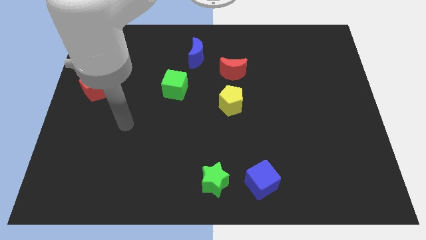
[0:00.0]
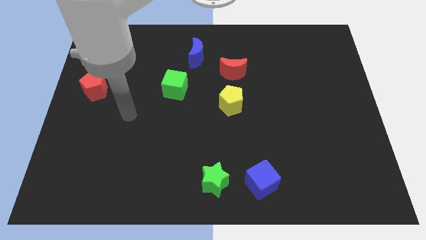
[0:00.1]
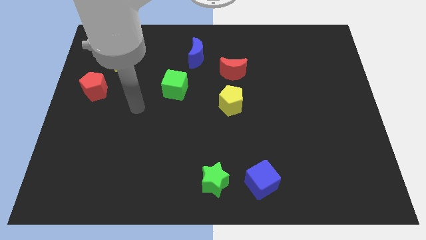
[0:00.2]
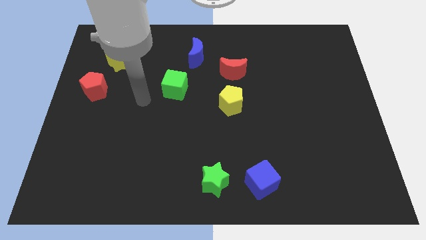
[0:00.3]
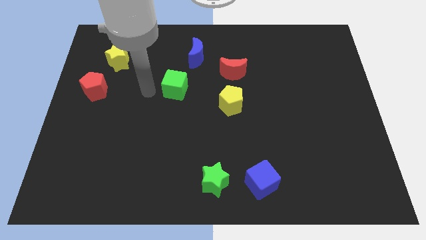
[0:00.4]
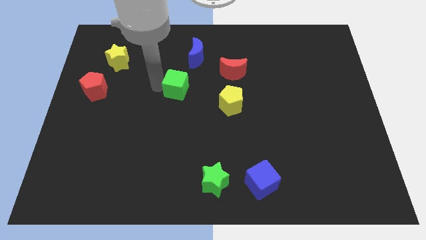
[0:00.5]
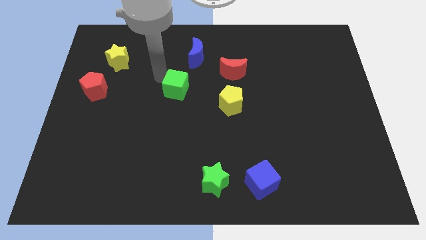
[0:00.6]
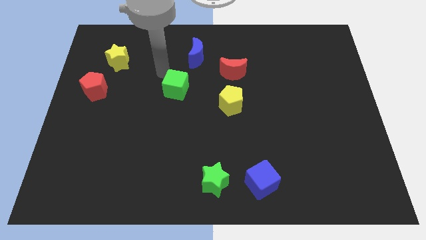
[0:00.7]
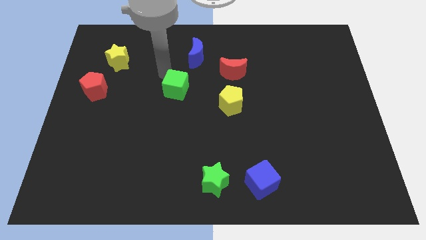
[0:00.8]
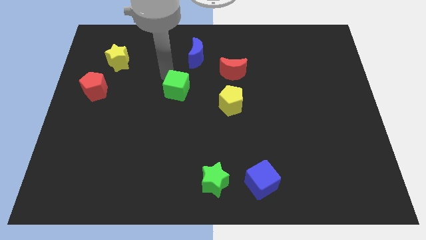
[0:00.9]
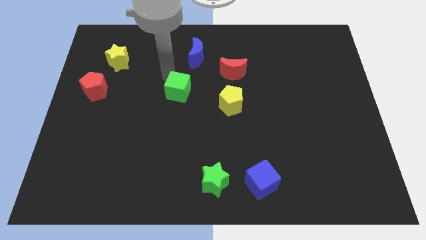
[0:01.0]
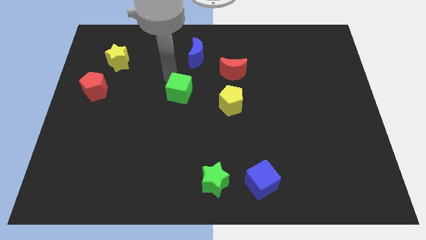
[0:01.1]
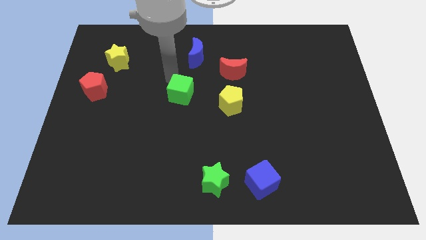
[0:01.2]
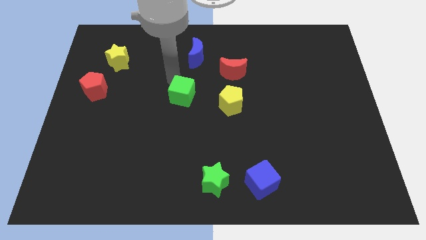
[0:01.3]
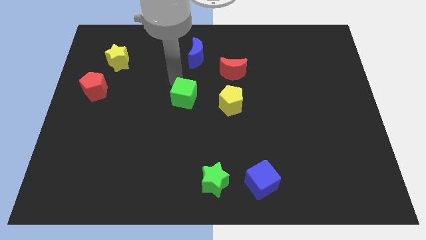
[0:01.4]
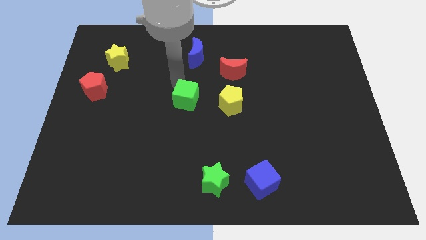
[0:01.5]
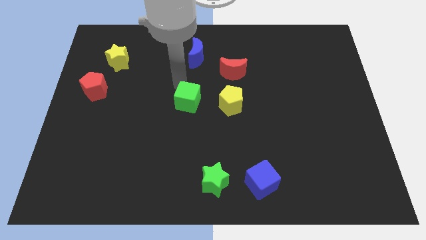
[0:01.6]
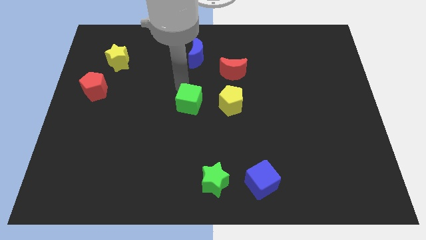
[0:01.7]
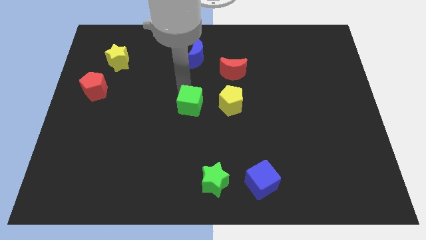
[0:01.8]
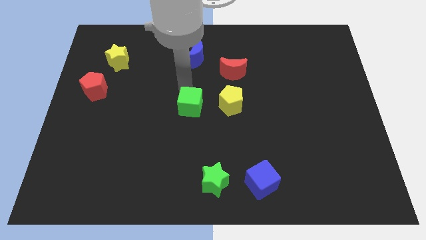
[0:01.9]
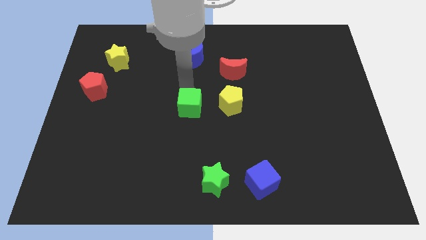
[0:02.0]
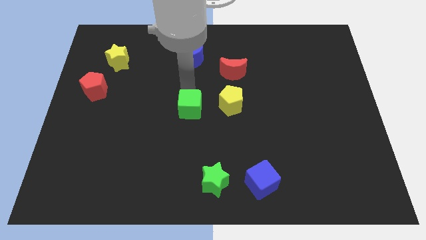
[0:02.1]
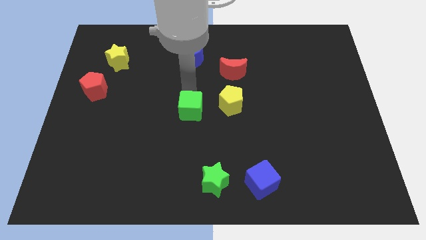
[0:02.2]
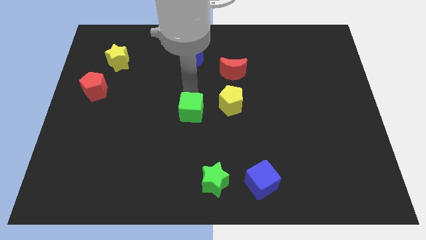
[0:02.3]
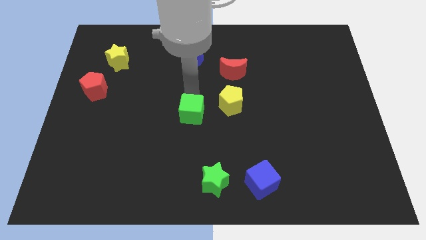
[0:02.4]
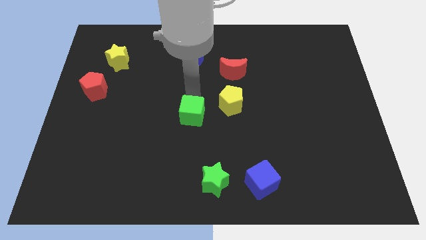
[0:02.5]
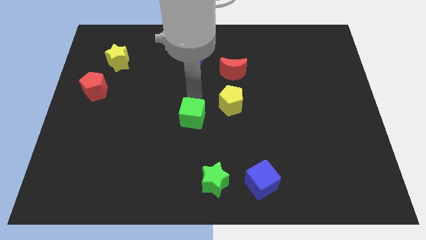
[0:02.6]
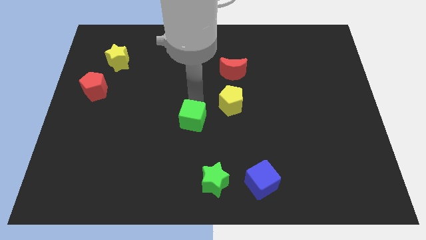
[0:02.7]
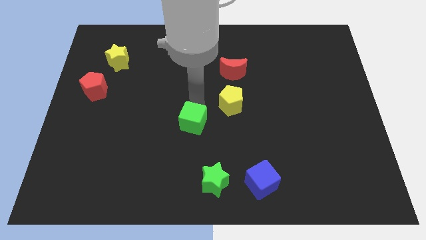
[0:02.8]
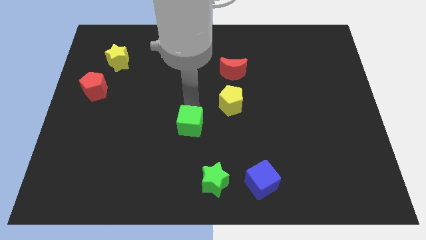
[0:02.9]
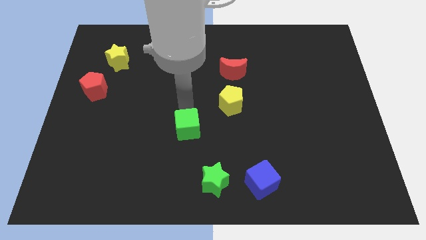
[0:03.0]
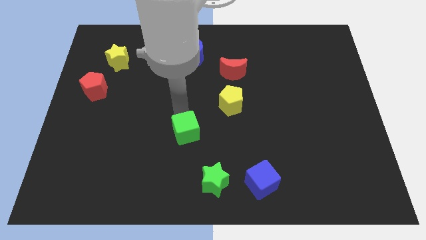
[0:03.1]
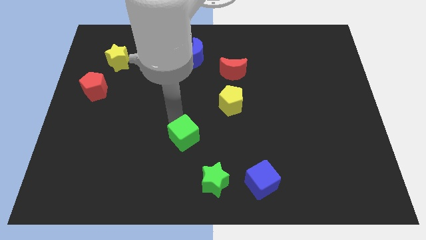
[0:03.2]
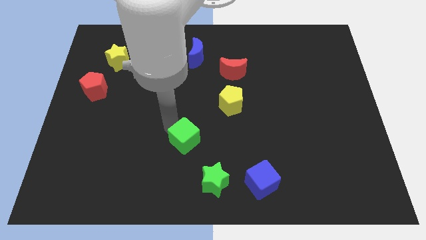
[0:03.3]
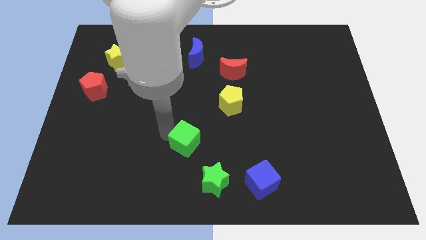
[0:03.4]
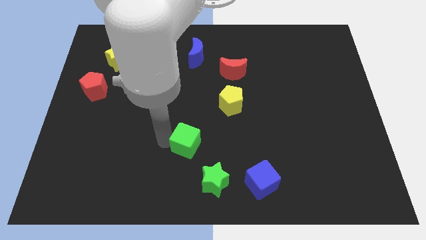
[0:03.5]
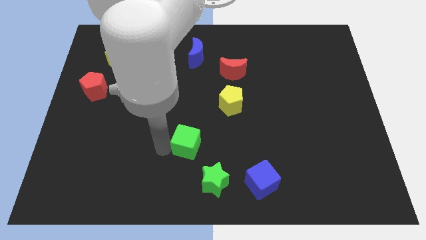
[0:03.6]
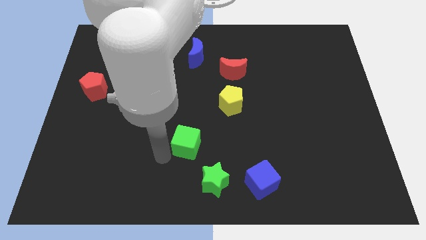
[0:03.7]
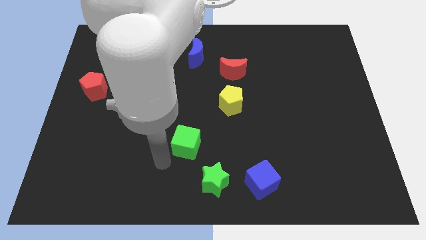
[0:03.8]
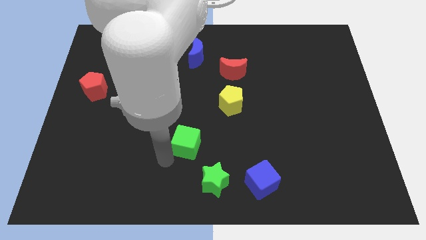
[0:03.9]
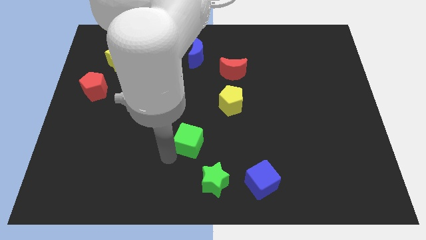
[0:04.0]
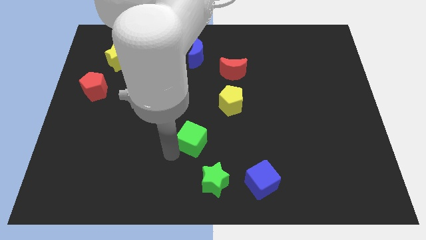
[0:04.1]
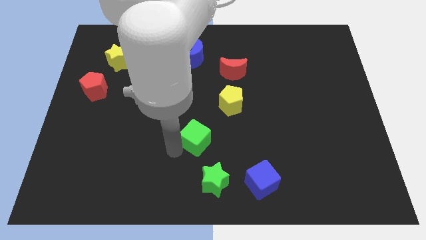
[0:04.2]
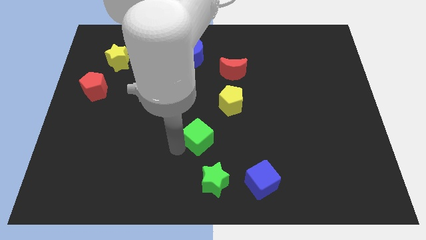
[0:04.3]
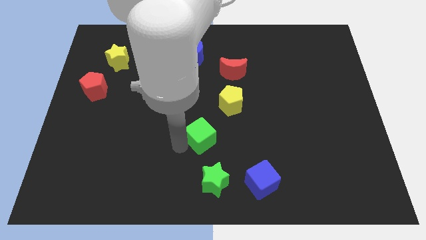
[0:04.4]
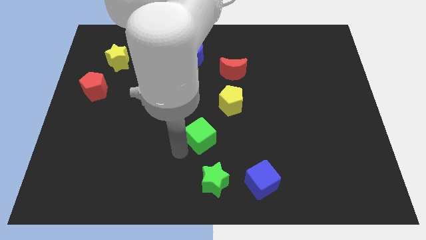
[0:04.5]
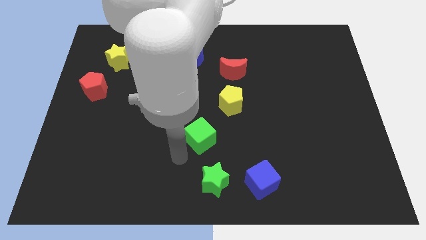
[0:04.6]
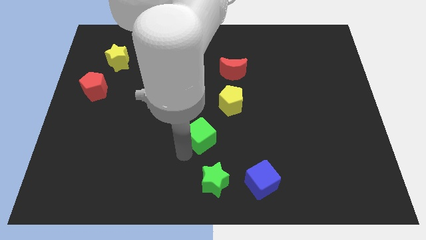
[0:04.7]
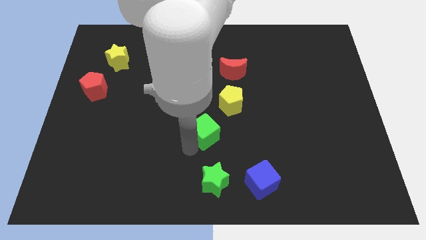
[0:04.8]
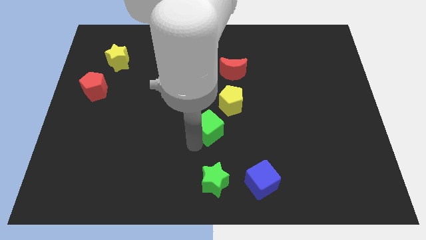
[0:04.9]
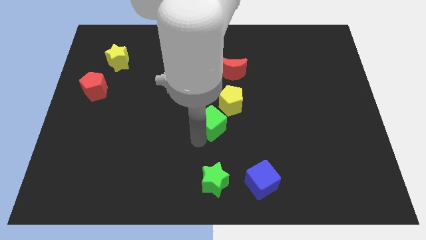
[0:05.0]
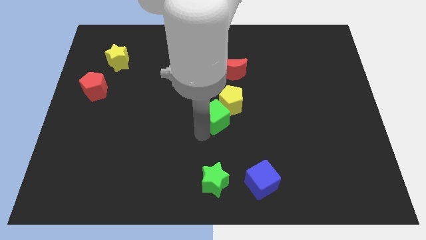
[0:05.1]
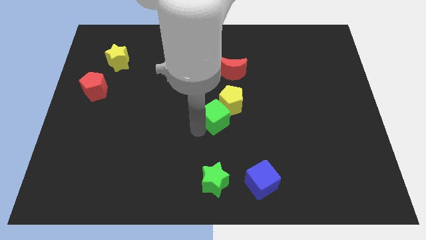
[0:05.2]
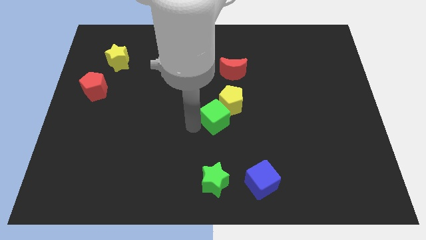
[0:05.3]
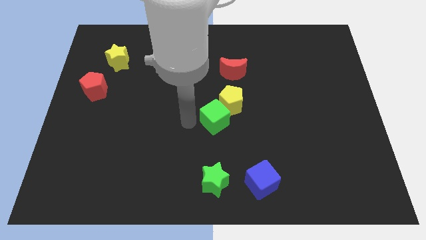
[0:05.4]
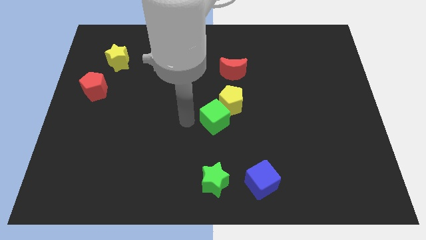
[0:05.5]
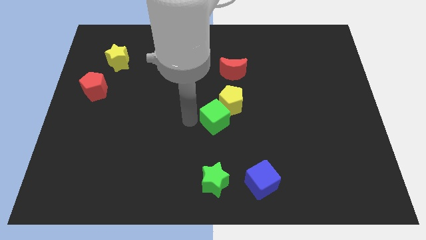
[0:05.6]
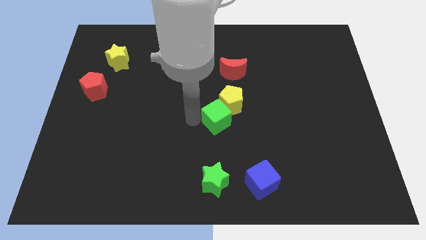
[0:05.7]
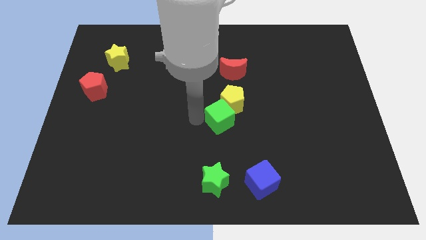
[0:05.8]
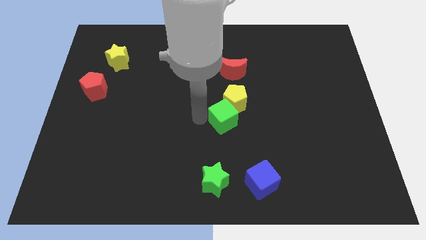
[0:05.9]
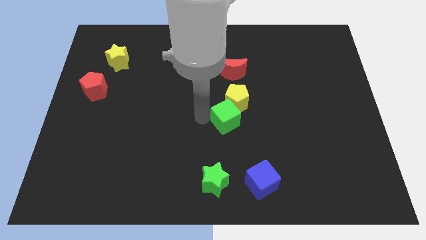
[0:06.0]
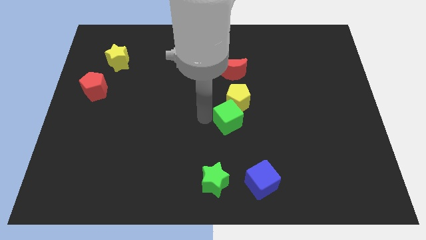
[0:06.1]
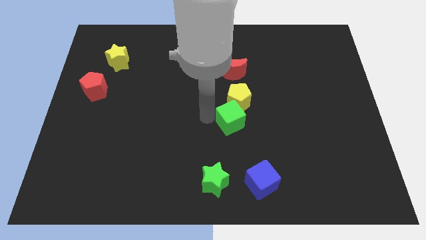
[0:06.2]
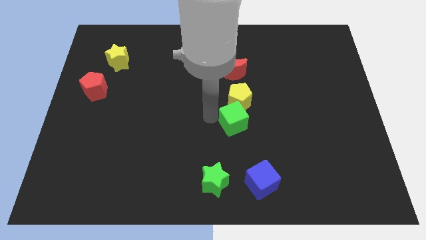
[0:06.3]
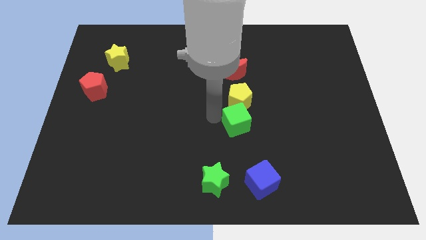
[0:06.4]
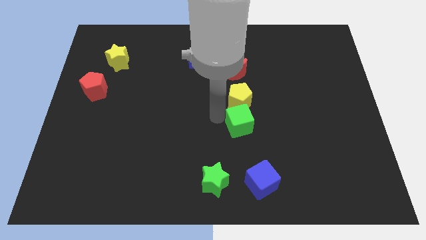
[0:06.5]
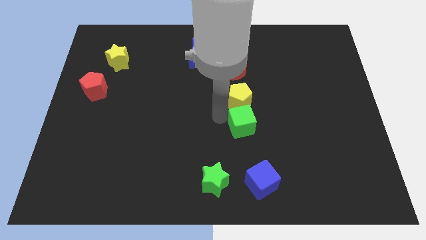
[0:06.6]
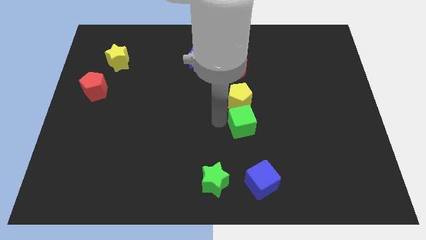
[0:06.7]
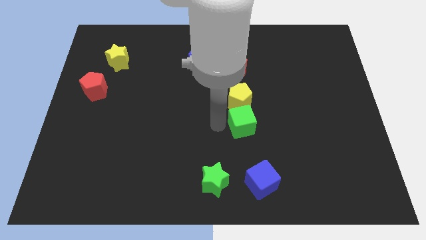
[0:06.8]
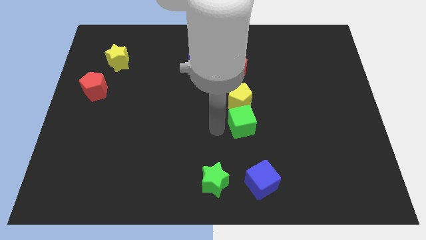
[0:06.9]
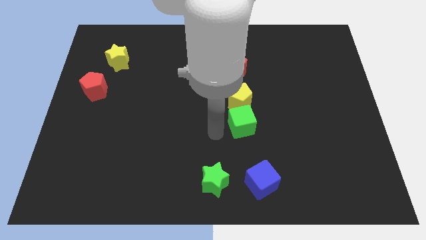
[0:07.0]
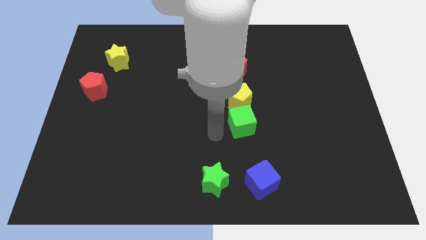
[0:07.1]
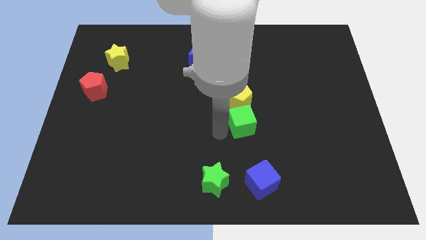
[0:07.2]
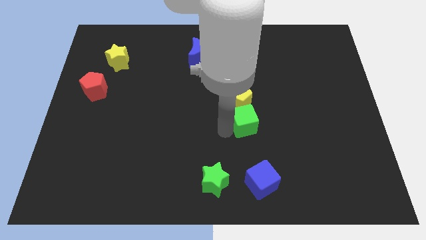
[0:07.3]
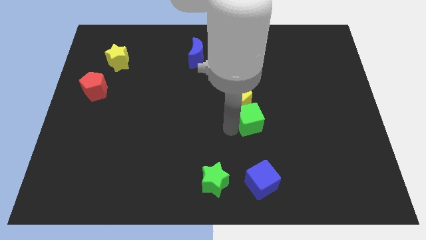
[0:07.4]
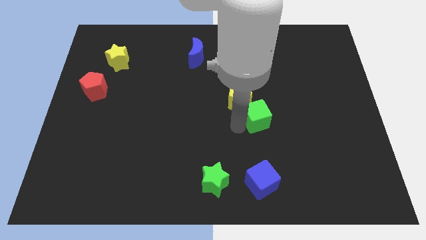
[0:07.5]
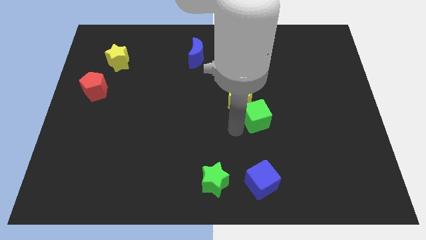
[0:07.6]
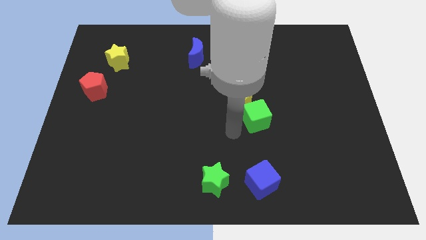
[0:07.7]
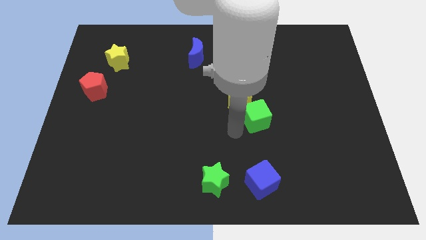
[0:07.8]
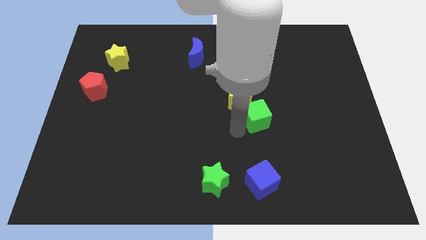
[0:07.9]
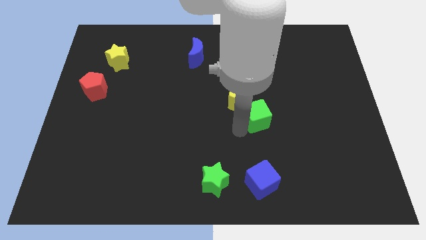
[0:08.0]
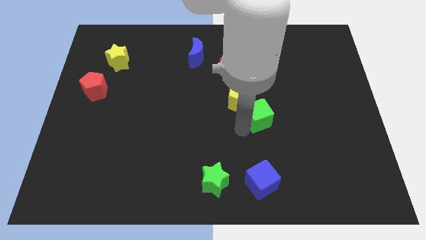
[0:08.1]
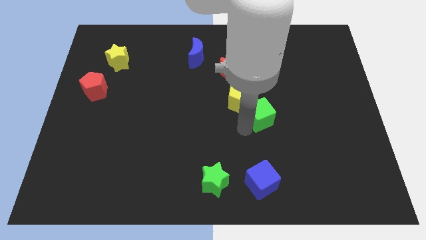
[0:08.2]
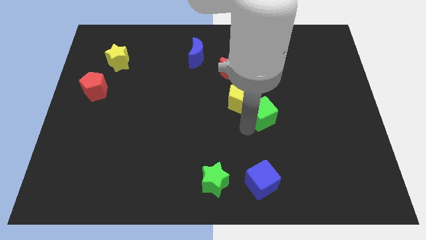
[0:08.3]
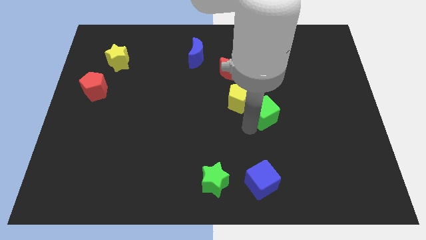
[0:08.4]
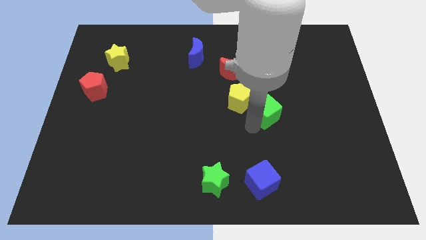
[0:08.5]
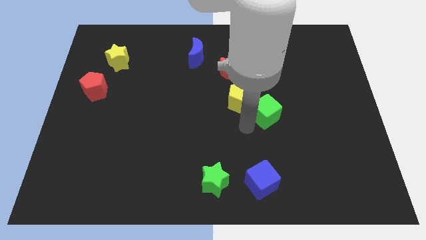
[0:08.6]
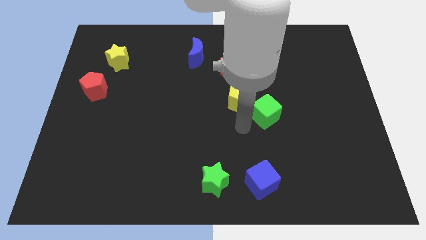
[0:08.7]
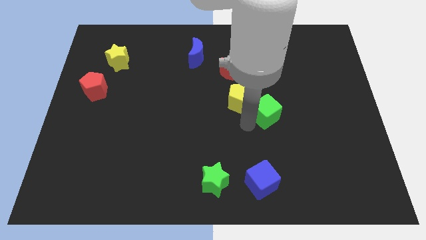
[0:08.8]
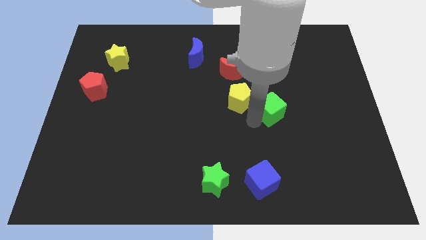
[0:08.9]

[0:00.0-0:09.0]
push the green cube to the right
